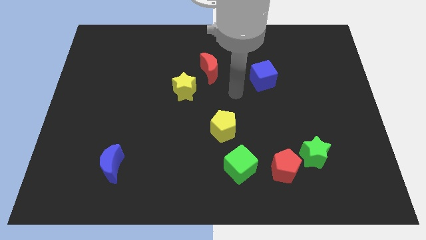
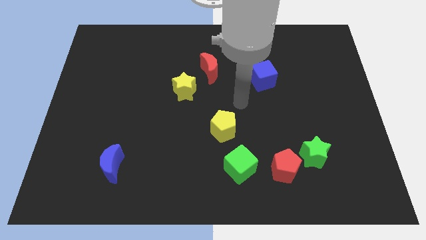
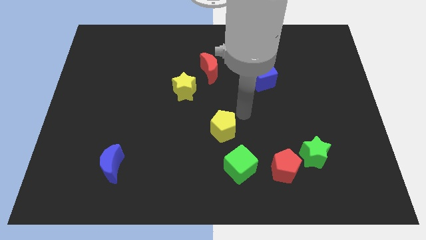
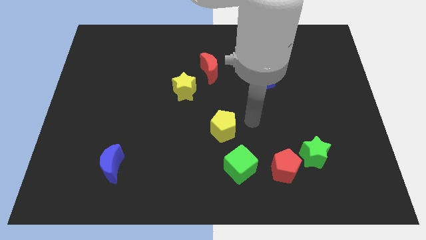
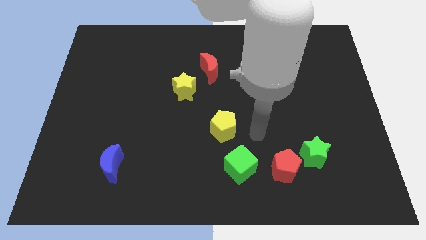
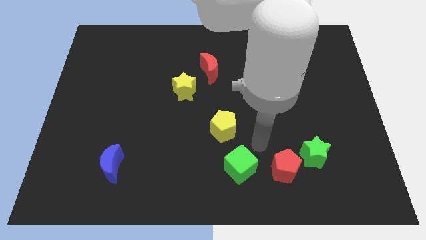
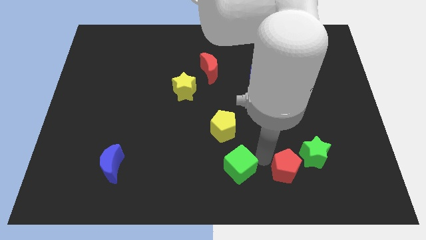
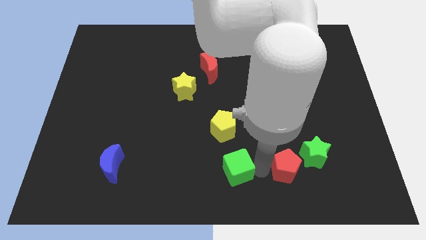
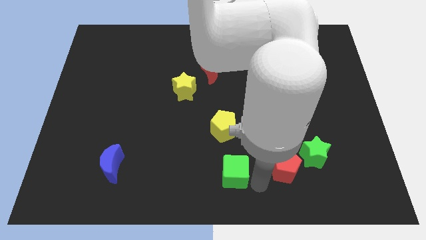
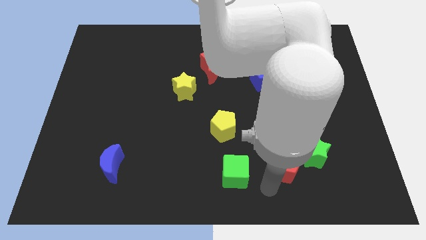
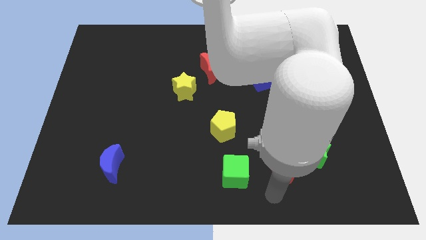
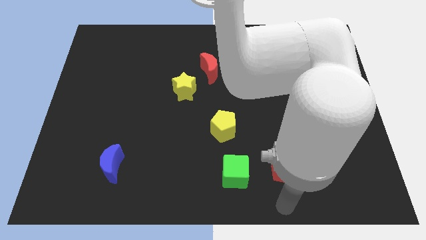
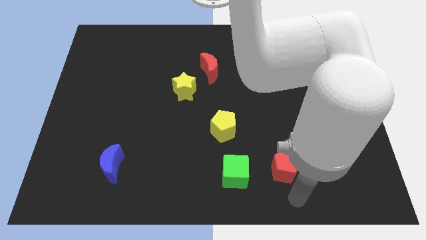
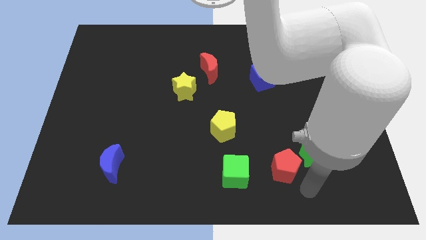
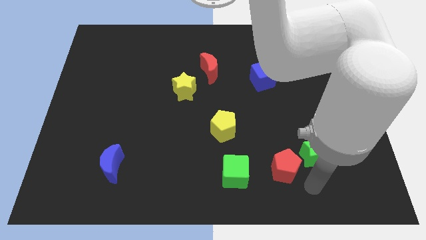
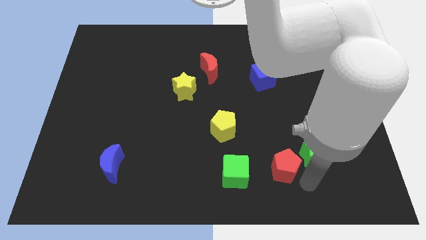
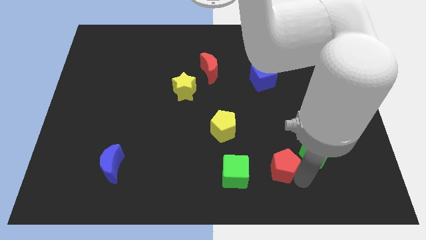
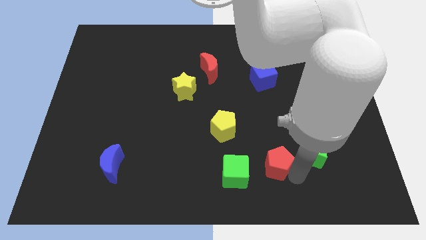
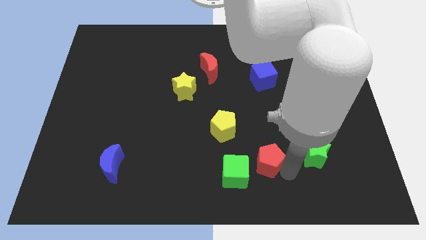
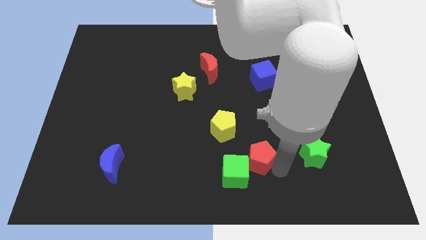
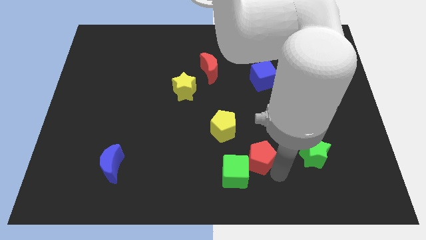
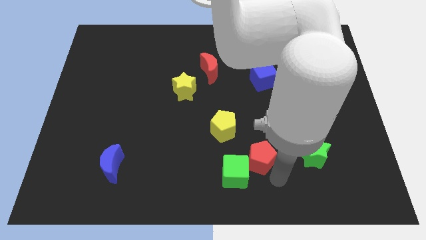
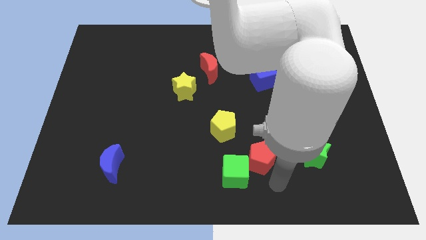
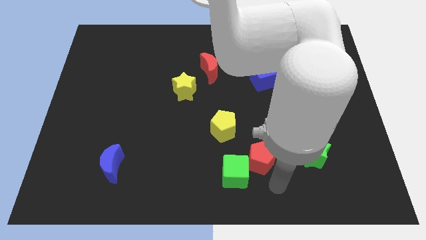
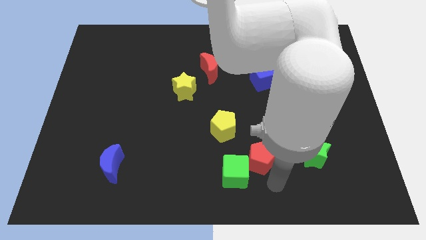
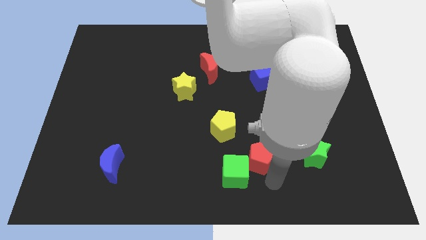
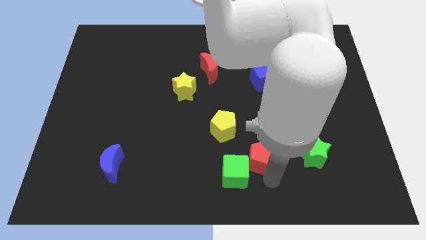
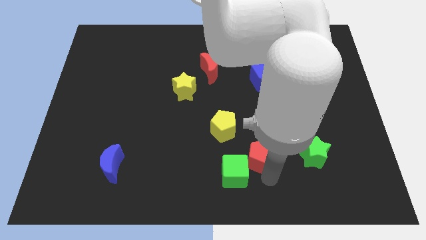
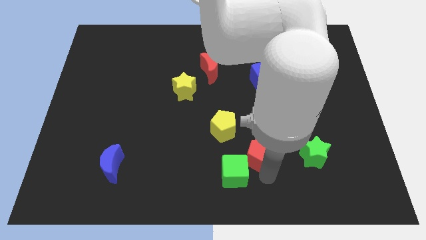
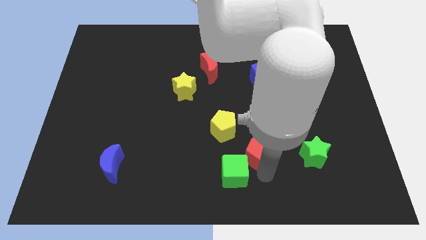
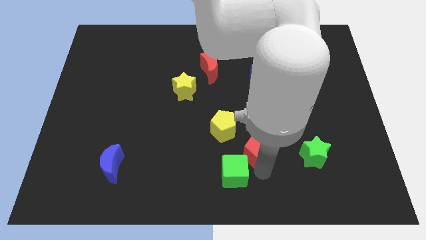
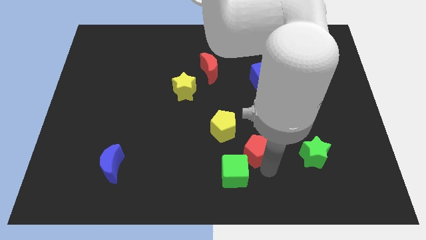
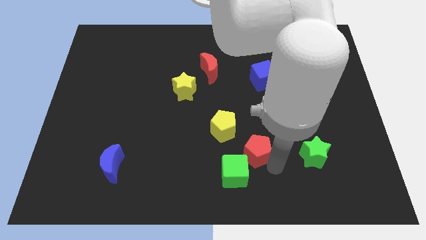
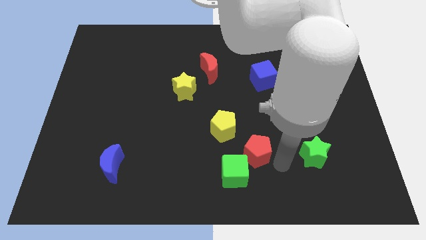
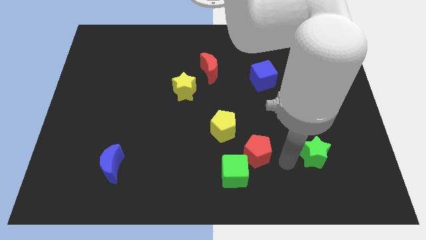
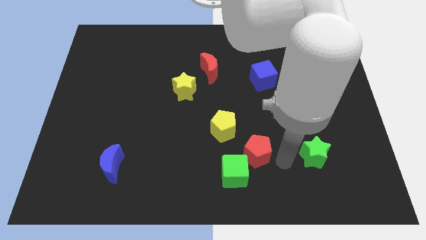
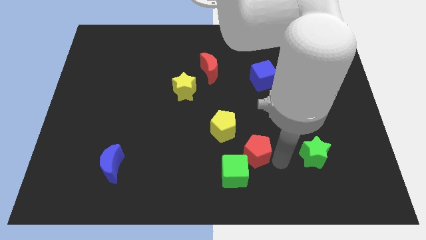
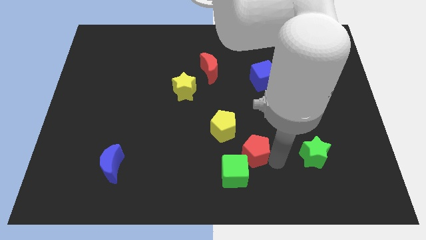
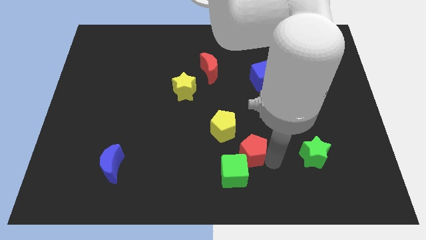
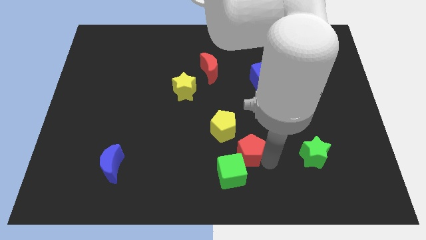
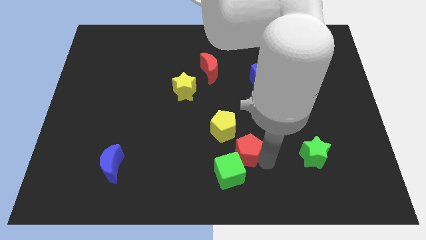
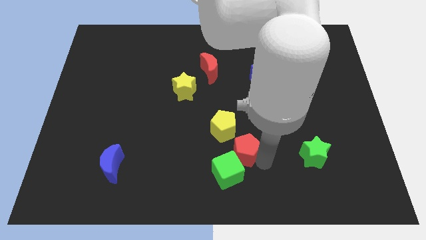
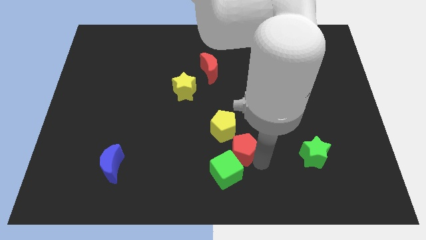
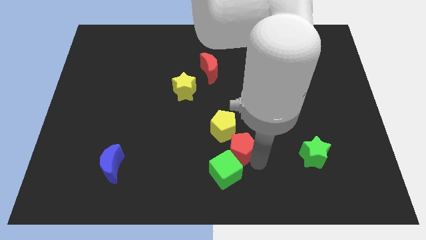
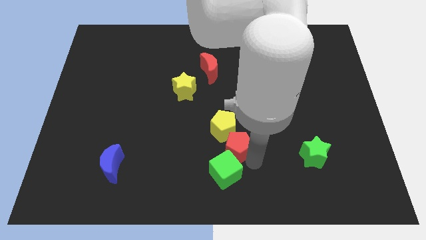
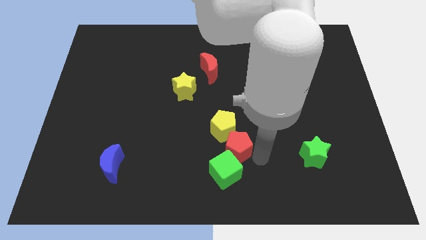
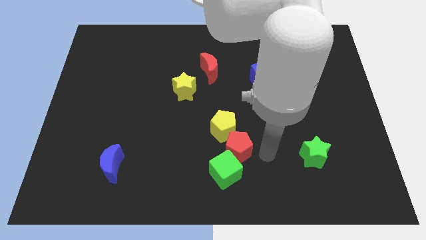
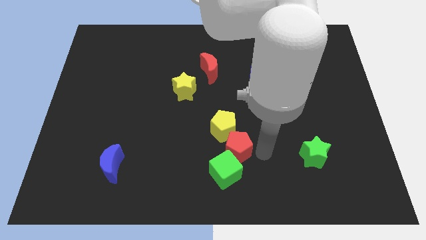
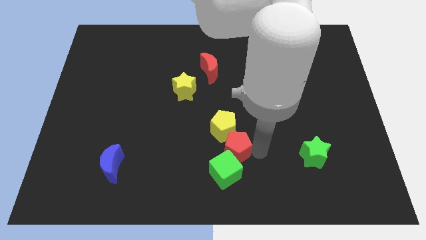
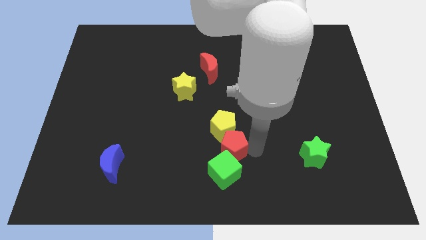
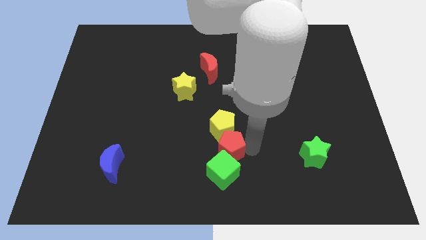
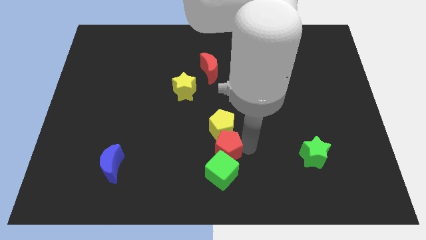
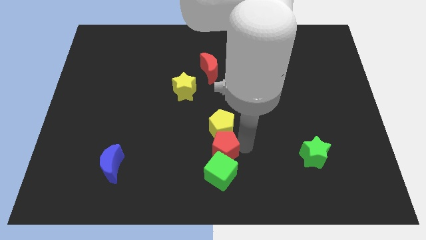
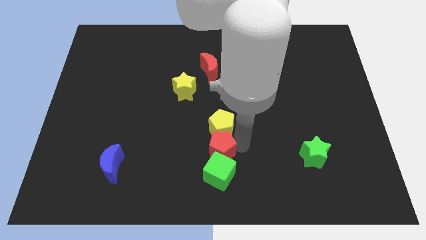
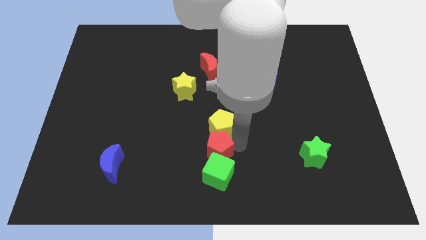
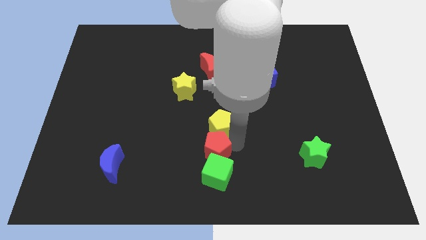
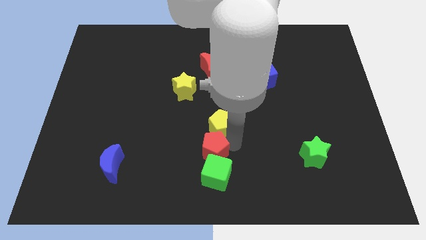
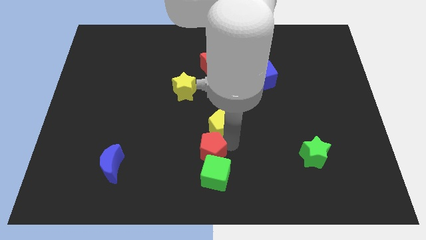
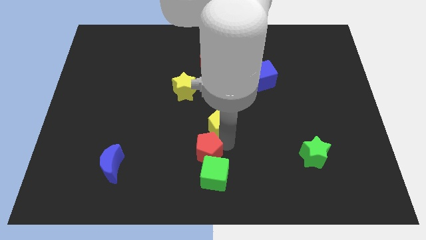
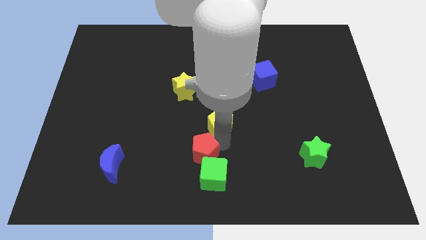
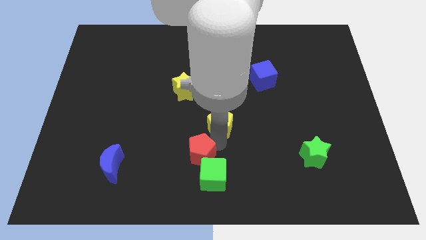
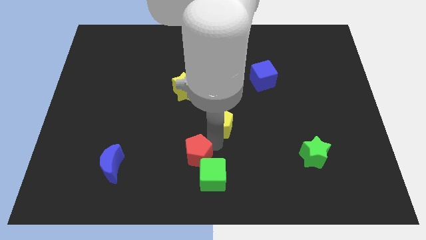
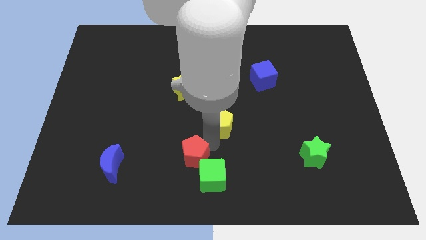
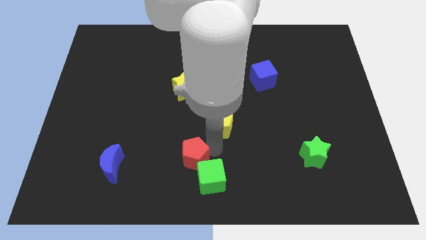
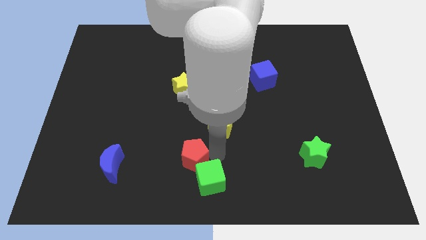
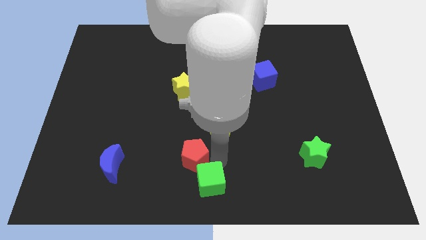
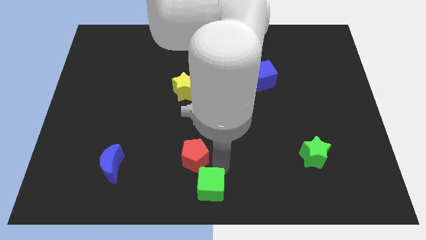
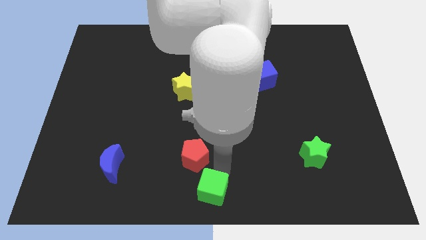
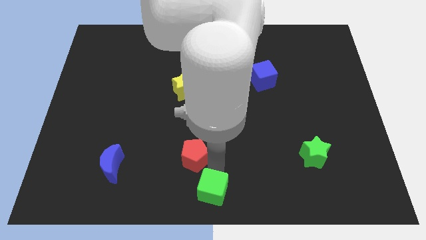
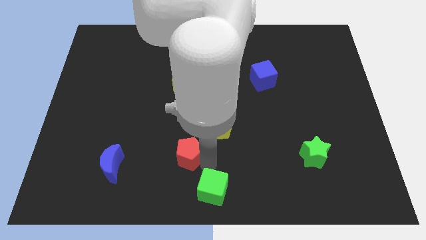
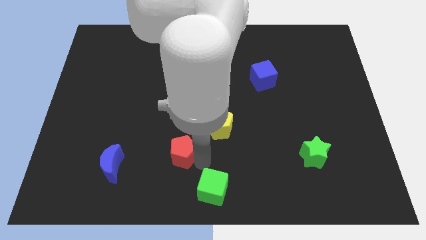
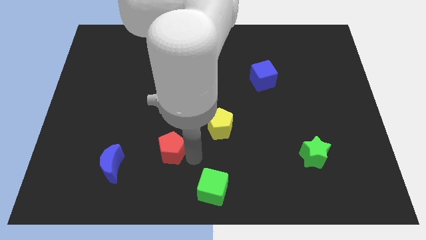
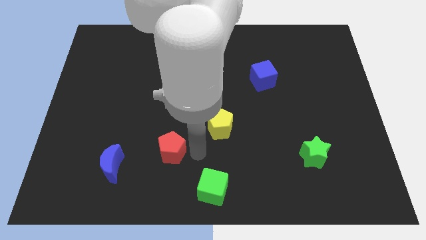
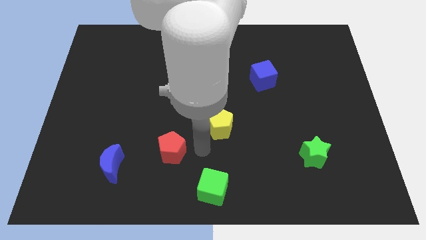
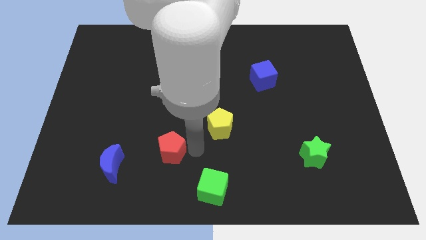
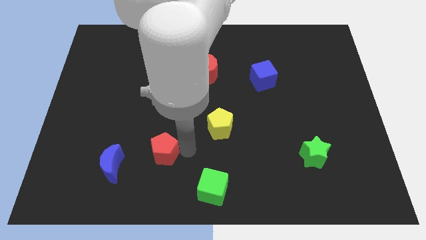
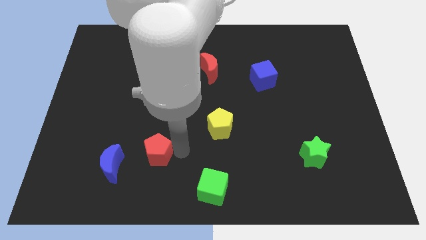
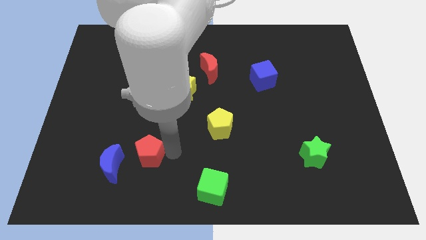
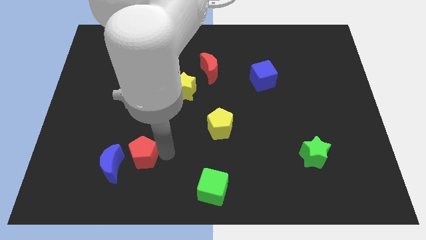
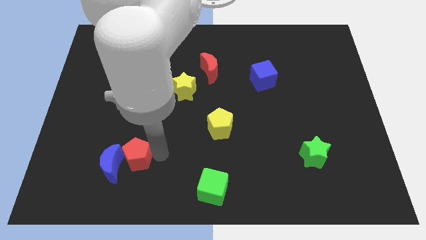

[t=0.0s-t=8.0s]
put the red pentagon towards the blue moon
